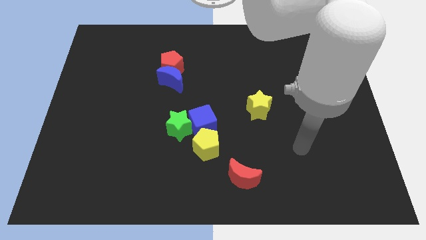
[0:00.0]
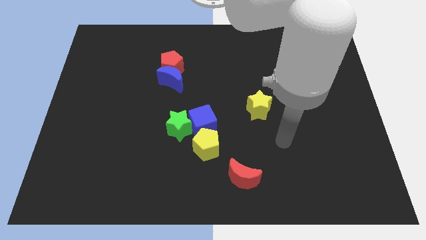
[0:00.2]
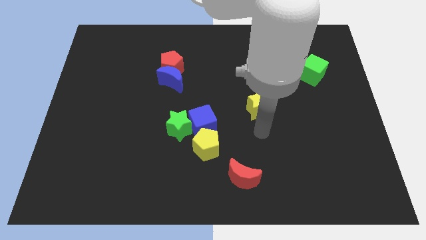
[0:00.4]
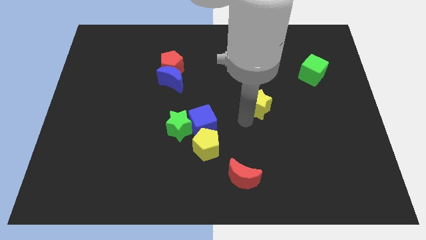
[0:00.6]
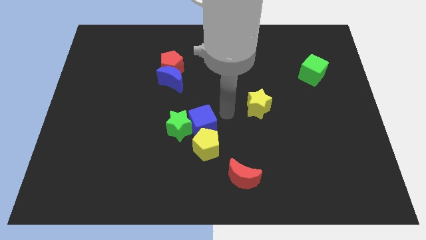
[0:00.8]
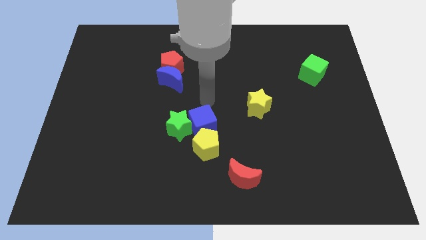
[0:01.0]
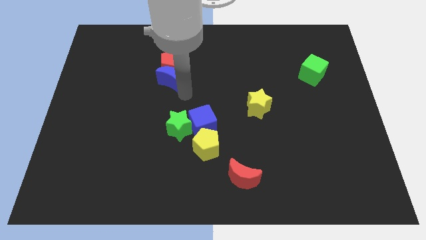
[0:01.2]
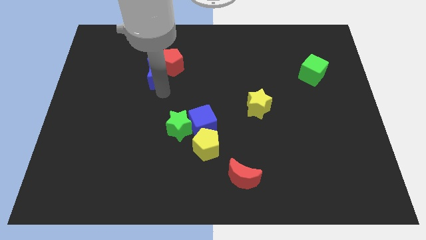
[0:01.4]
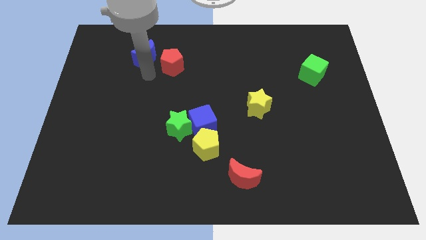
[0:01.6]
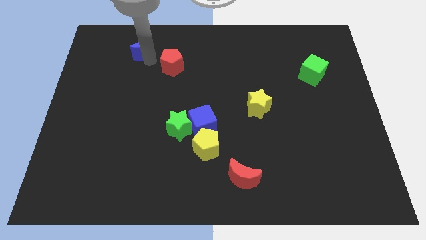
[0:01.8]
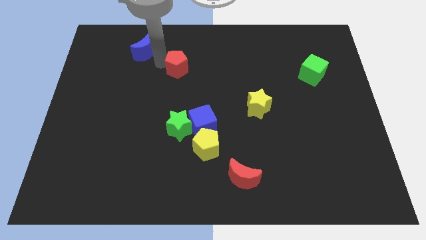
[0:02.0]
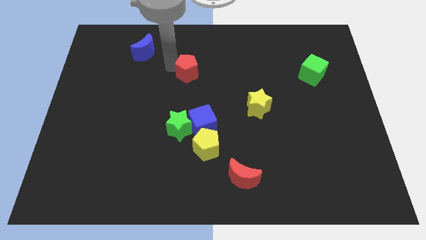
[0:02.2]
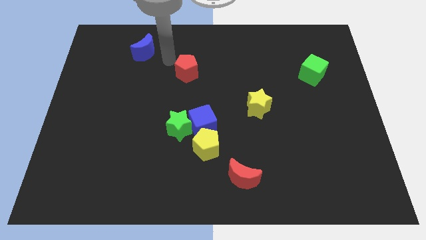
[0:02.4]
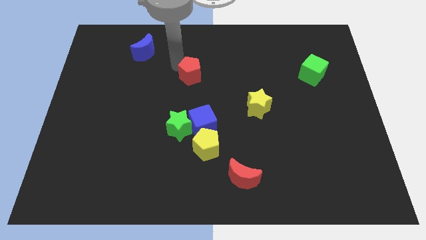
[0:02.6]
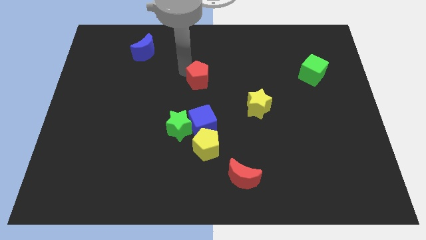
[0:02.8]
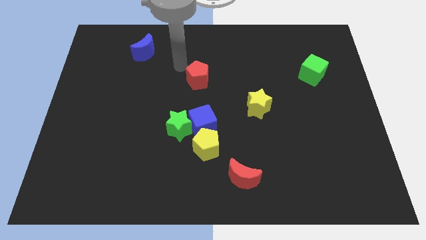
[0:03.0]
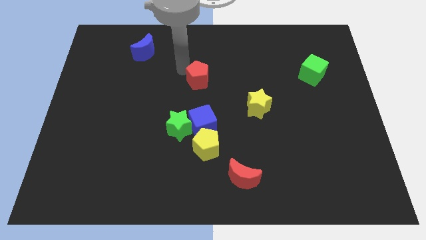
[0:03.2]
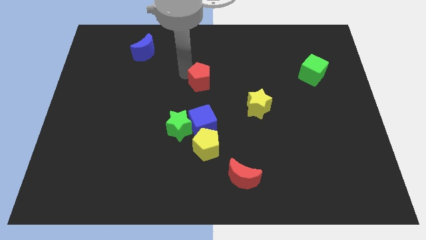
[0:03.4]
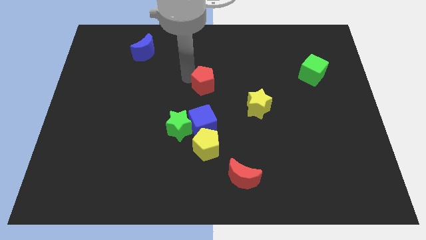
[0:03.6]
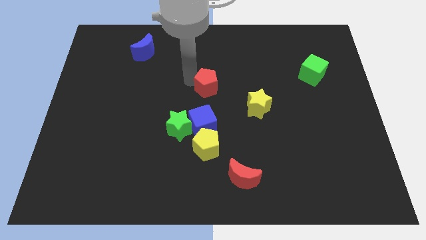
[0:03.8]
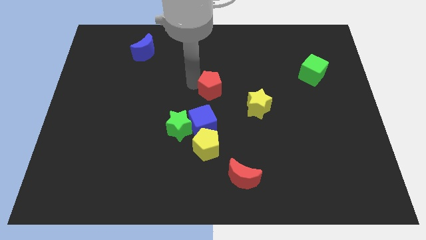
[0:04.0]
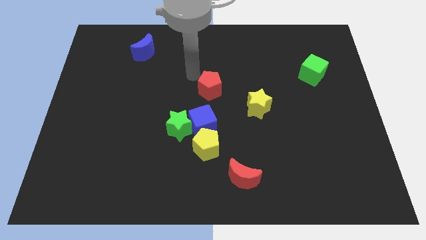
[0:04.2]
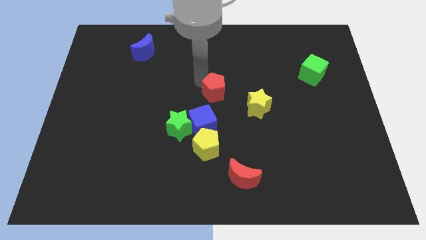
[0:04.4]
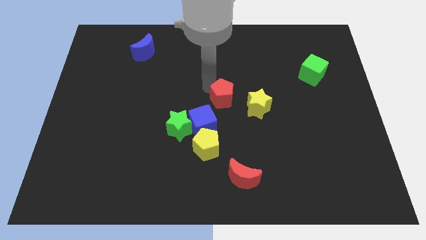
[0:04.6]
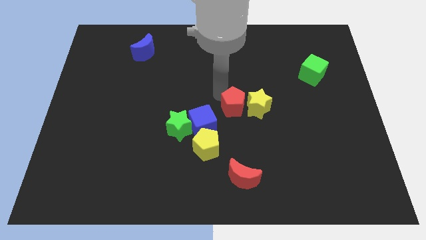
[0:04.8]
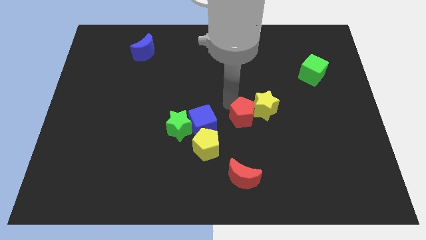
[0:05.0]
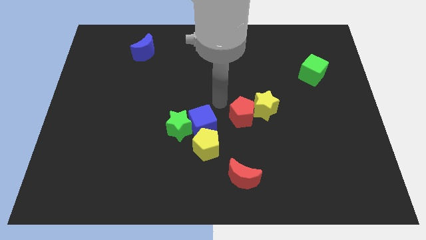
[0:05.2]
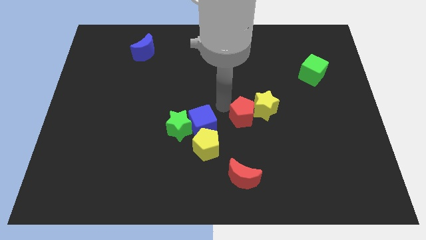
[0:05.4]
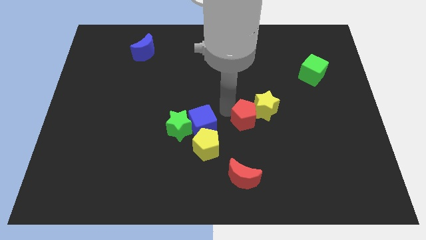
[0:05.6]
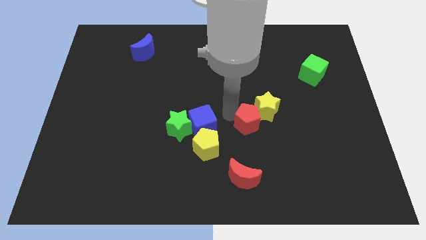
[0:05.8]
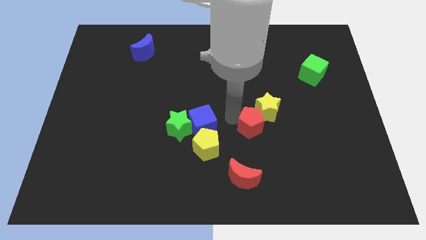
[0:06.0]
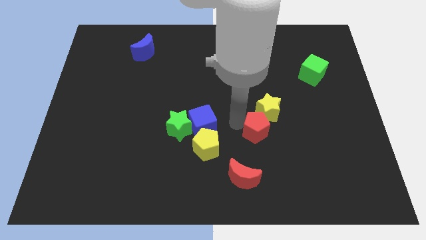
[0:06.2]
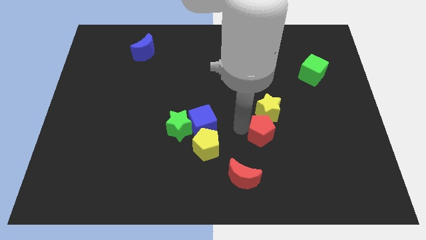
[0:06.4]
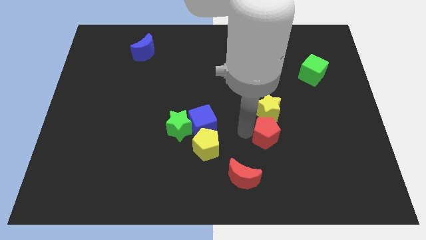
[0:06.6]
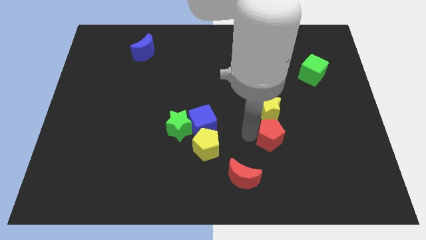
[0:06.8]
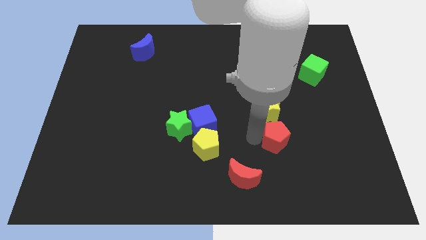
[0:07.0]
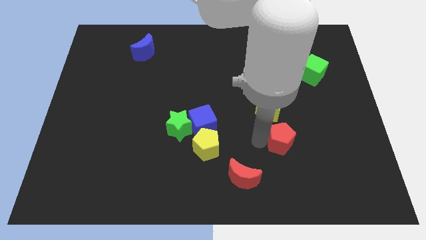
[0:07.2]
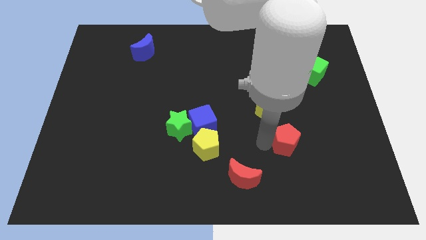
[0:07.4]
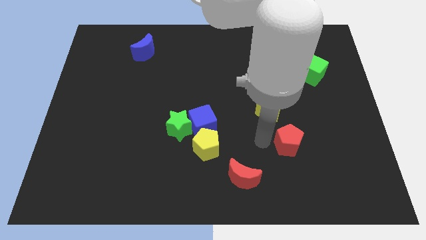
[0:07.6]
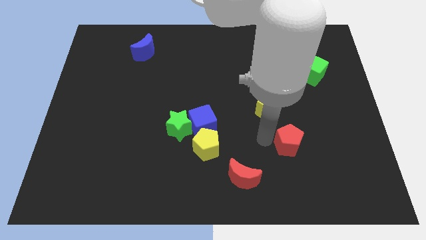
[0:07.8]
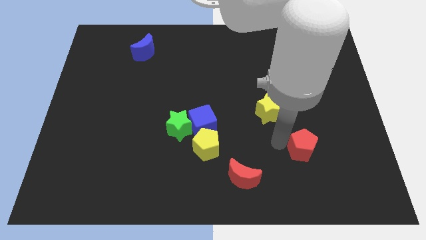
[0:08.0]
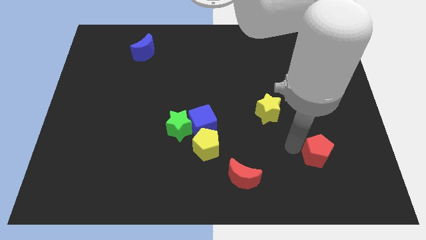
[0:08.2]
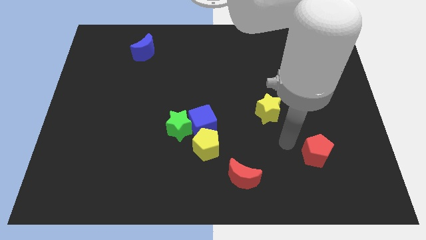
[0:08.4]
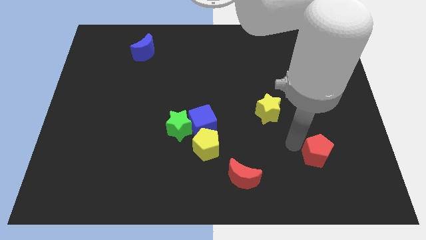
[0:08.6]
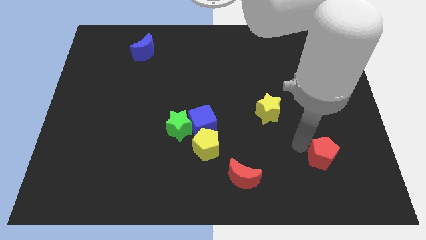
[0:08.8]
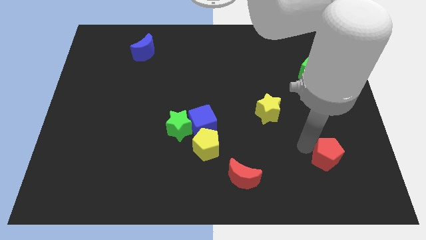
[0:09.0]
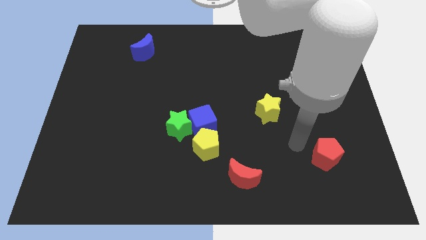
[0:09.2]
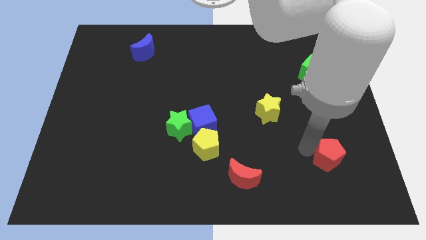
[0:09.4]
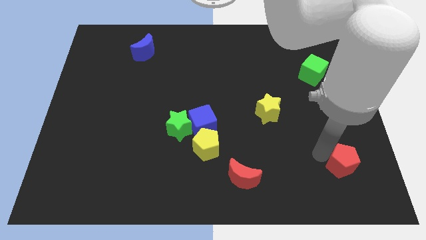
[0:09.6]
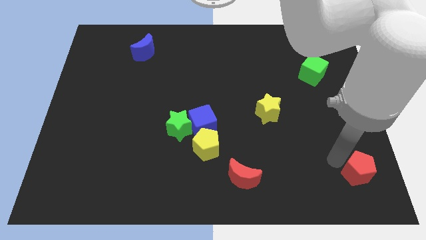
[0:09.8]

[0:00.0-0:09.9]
slide the red pentagon to the bottom right corner

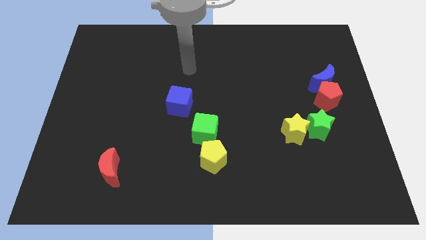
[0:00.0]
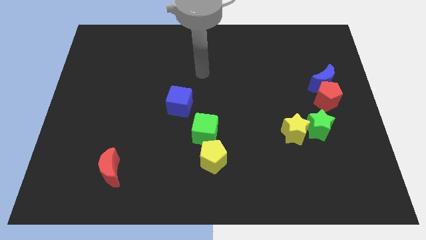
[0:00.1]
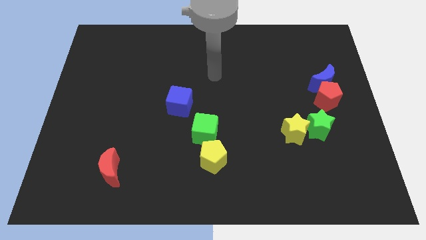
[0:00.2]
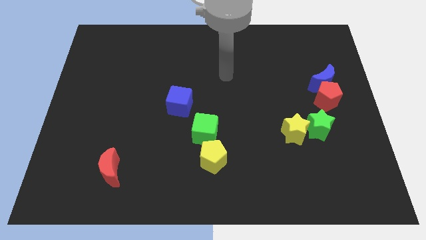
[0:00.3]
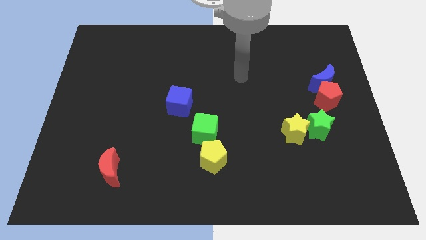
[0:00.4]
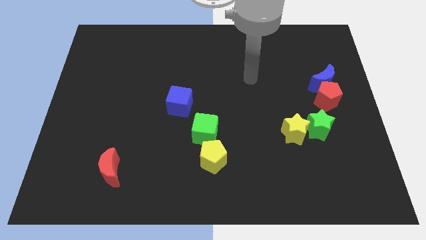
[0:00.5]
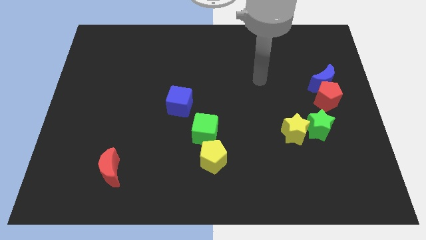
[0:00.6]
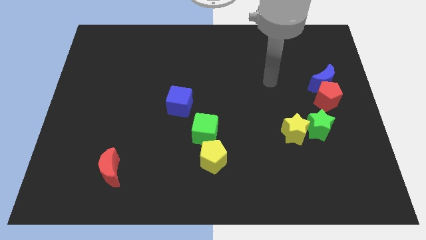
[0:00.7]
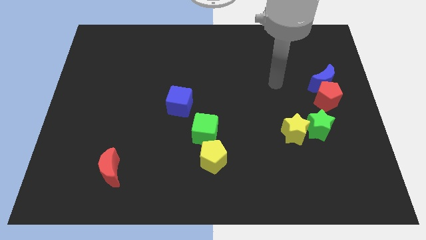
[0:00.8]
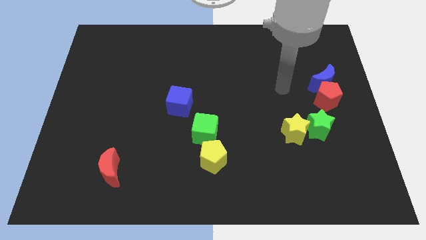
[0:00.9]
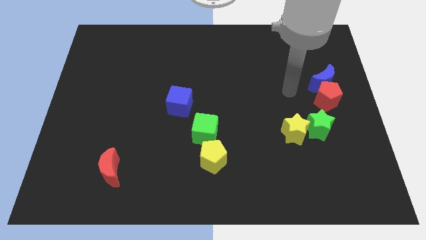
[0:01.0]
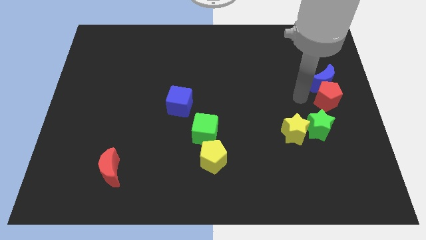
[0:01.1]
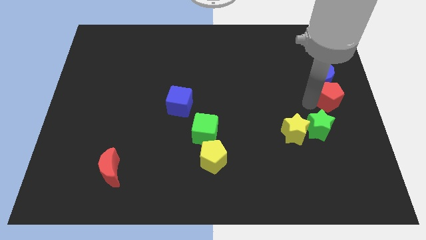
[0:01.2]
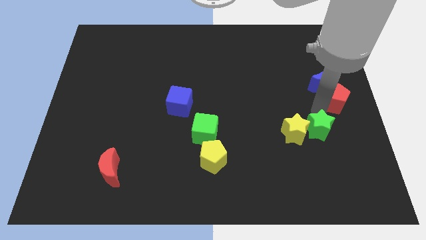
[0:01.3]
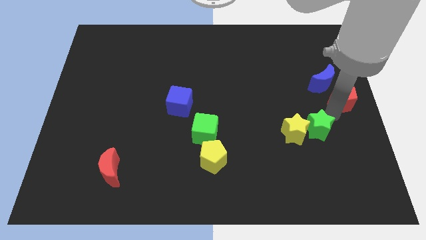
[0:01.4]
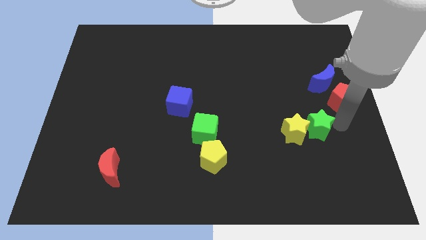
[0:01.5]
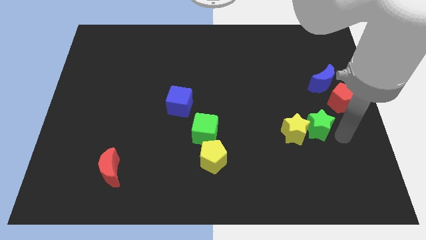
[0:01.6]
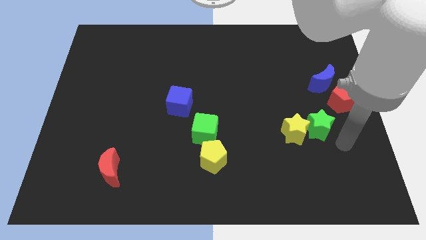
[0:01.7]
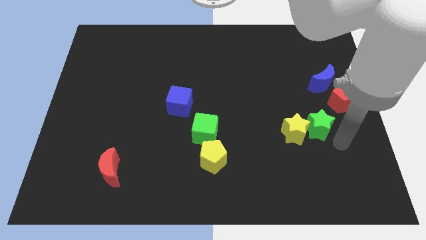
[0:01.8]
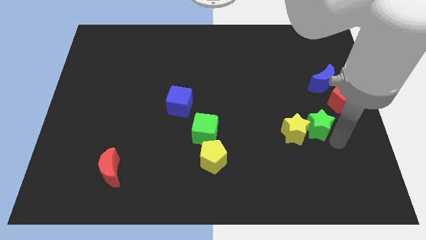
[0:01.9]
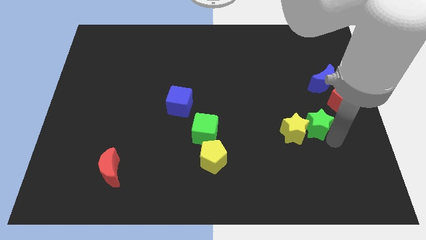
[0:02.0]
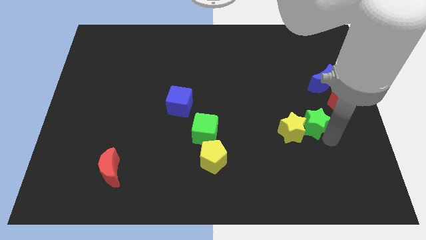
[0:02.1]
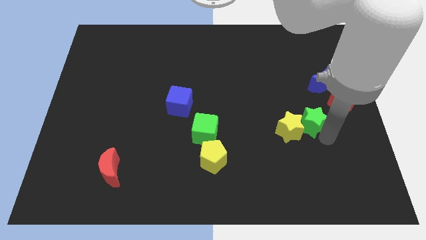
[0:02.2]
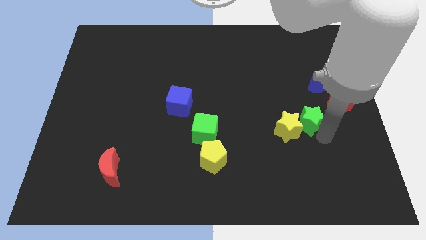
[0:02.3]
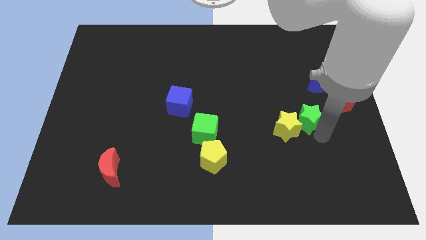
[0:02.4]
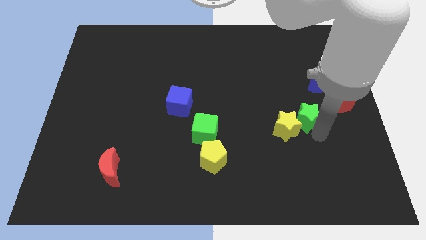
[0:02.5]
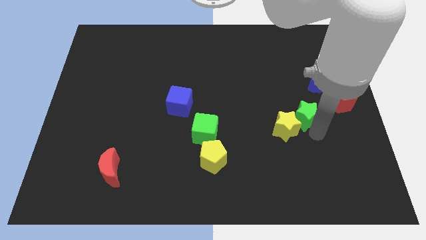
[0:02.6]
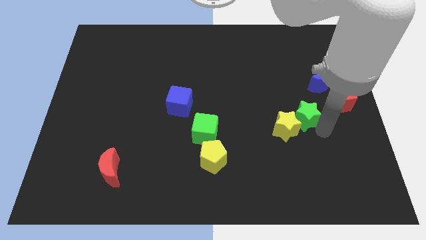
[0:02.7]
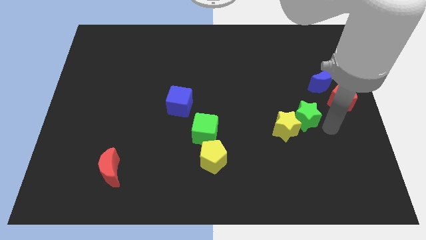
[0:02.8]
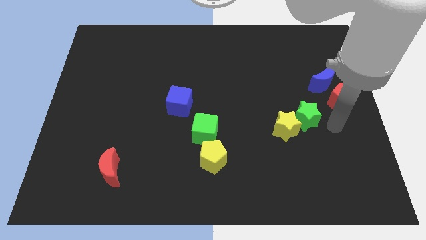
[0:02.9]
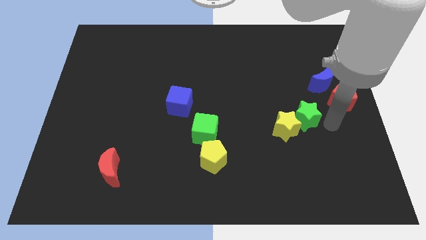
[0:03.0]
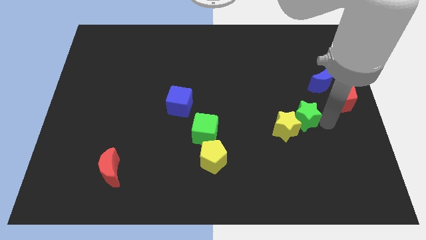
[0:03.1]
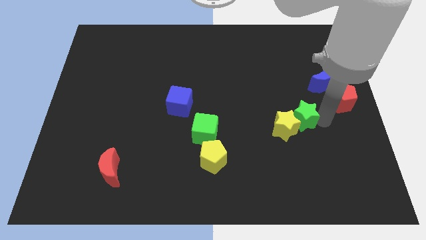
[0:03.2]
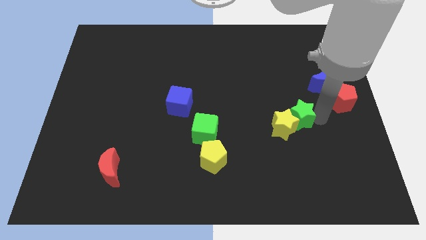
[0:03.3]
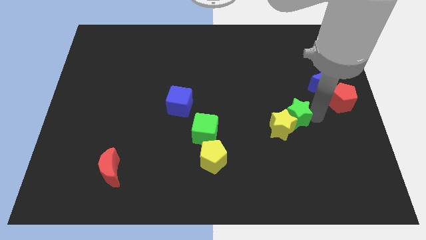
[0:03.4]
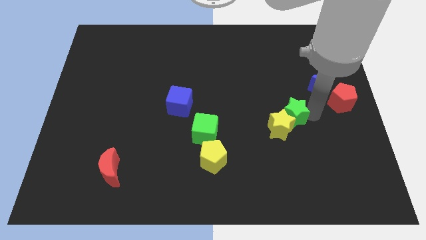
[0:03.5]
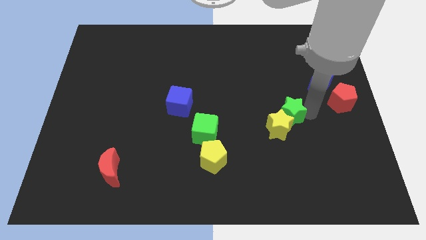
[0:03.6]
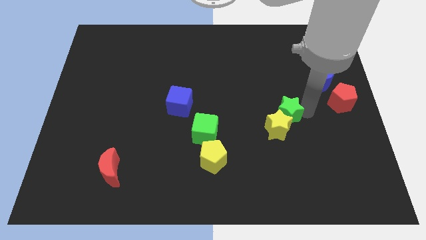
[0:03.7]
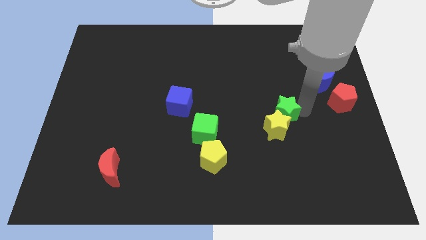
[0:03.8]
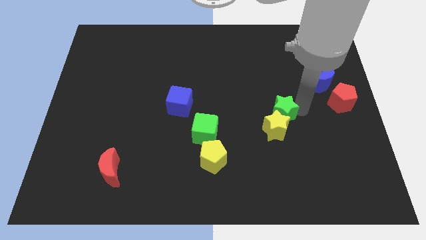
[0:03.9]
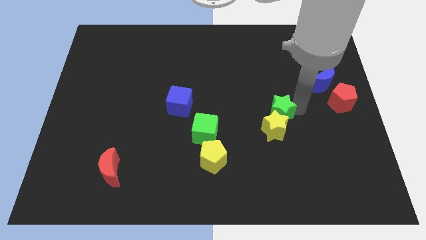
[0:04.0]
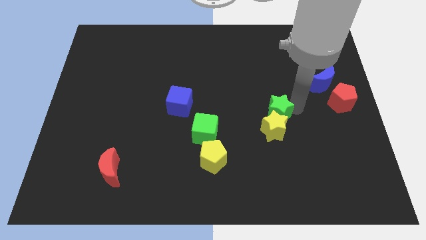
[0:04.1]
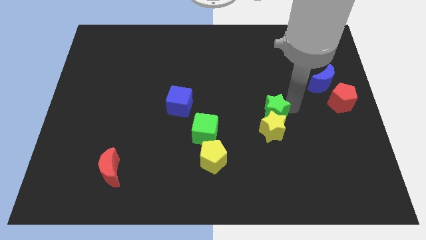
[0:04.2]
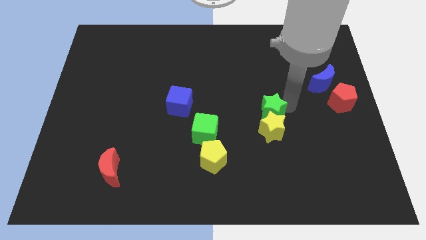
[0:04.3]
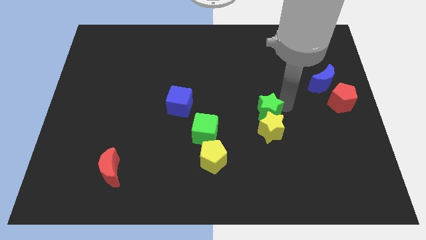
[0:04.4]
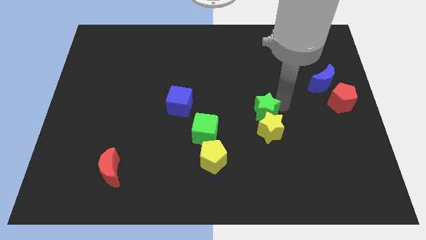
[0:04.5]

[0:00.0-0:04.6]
put the green star to the middle of the board
